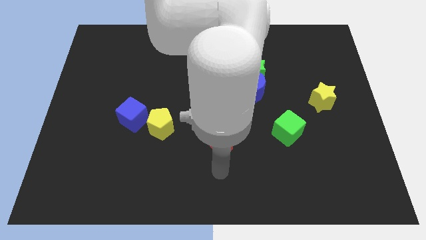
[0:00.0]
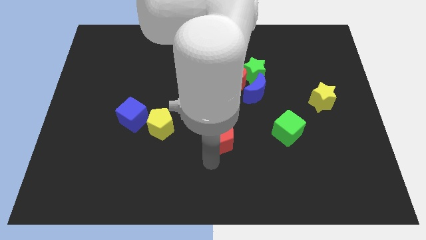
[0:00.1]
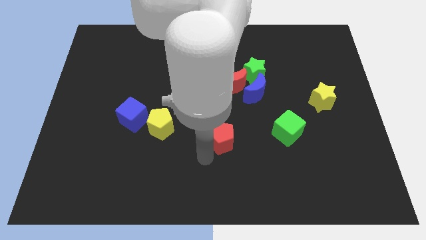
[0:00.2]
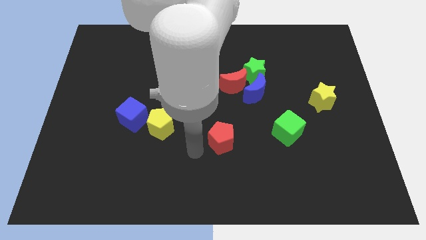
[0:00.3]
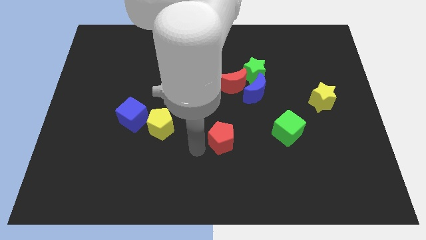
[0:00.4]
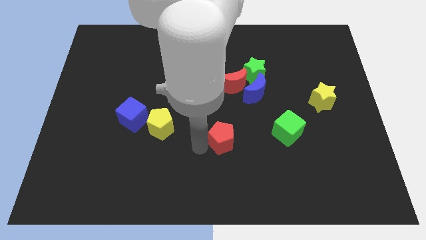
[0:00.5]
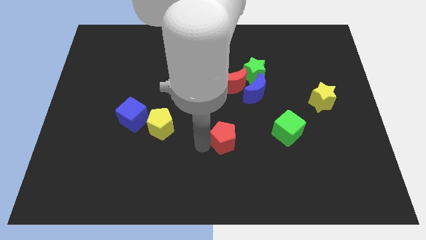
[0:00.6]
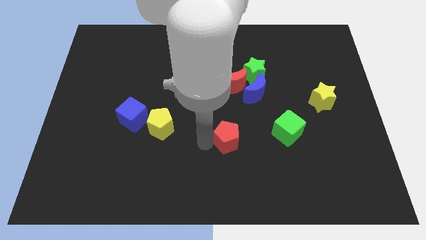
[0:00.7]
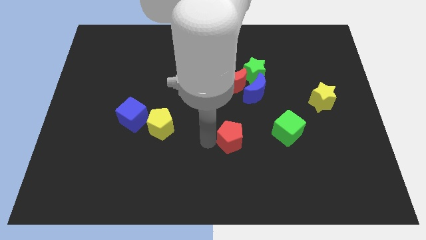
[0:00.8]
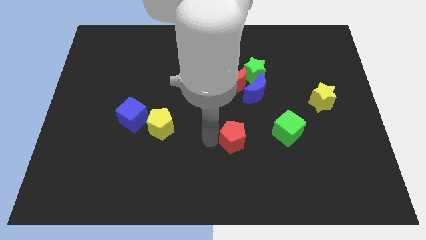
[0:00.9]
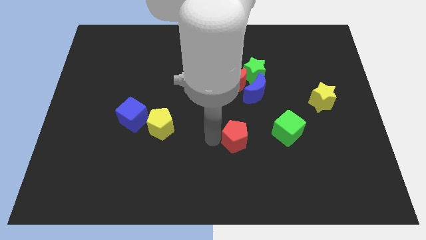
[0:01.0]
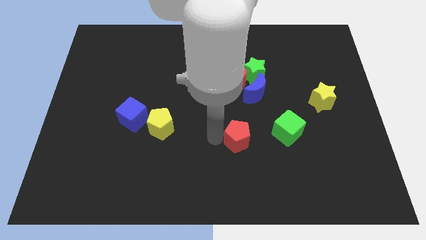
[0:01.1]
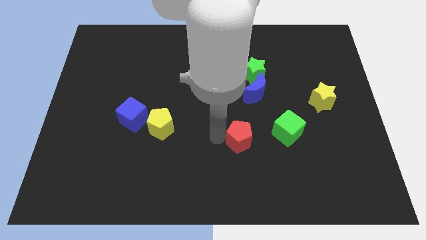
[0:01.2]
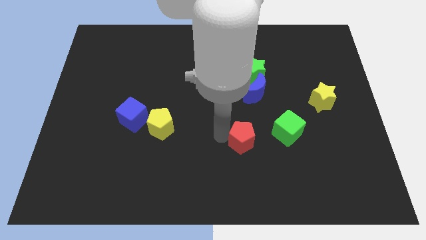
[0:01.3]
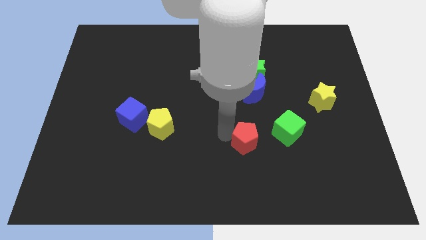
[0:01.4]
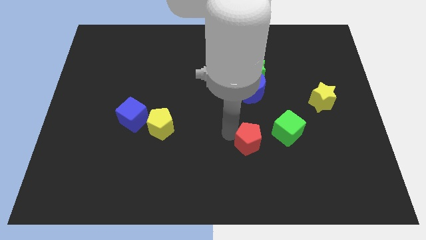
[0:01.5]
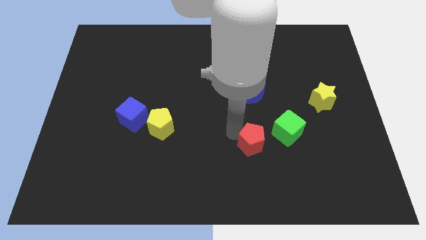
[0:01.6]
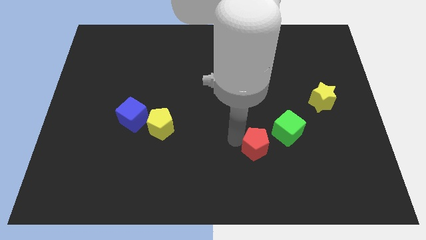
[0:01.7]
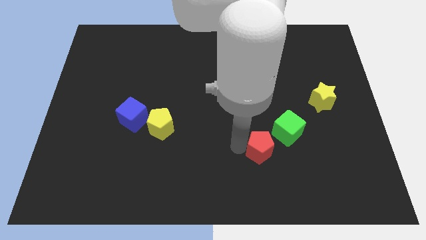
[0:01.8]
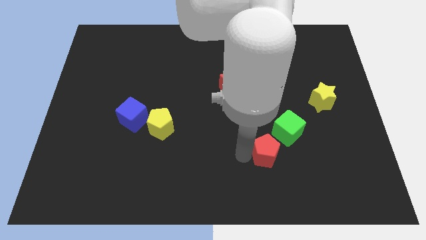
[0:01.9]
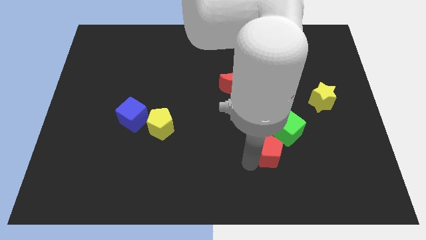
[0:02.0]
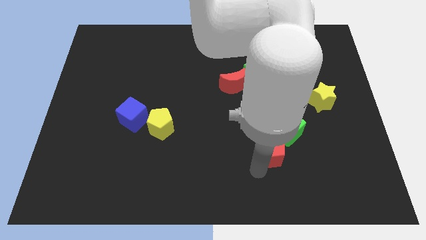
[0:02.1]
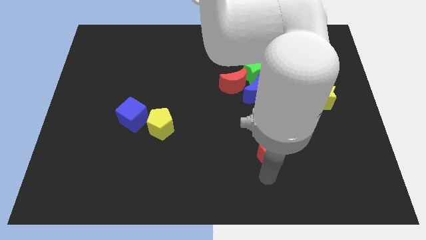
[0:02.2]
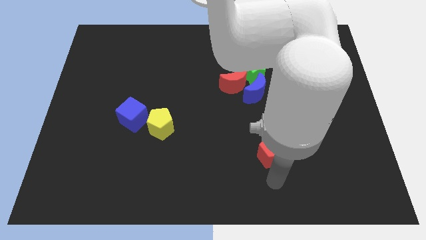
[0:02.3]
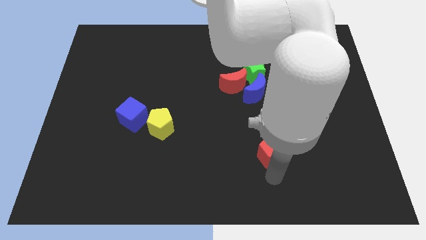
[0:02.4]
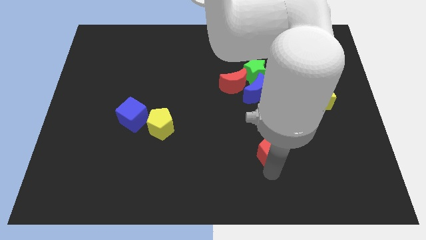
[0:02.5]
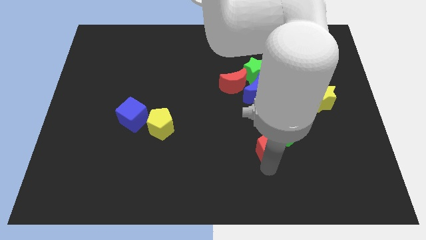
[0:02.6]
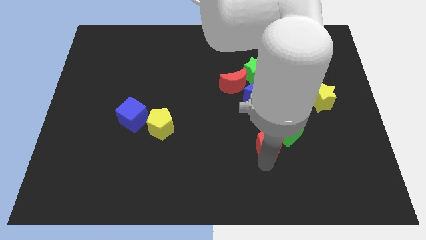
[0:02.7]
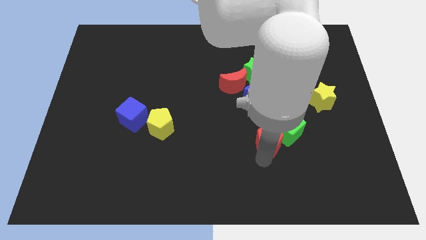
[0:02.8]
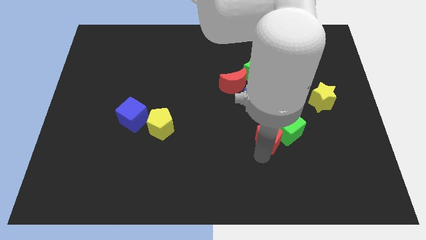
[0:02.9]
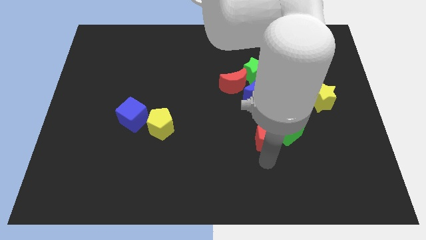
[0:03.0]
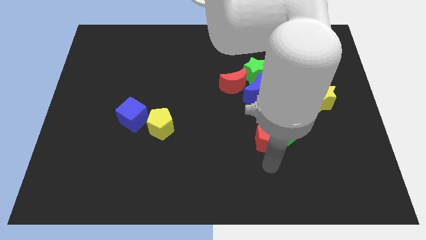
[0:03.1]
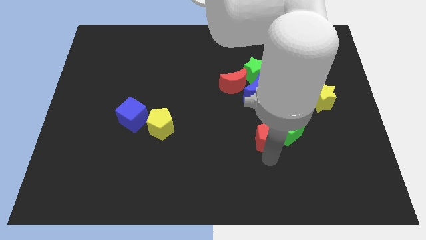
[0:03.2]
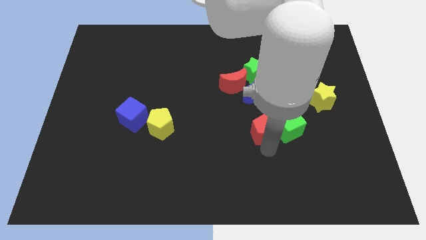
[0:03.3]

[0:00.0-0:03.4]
slide the red pentagon a little up and then right

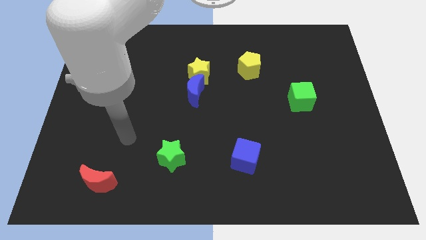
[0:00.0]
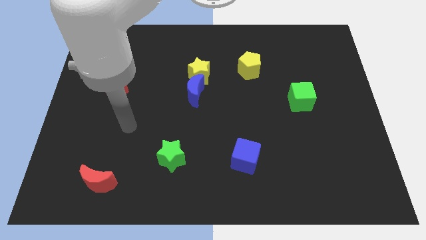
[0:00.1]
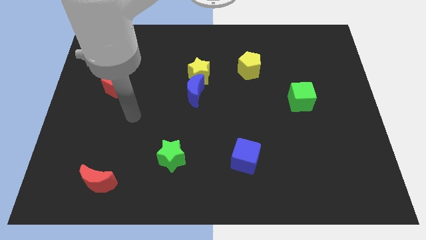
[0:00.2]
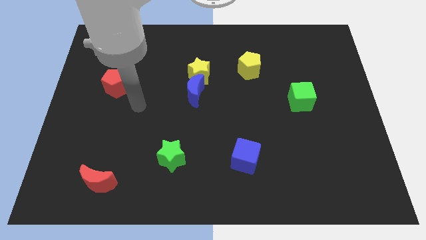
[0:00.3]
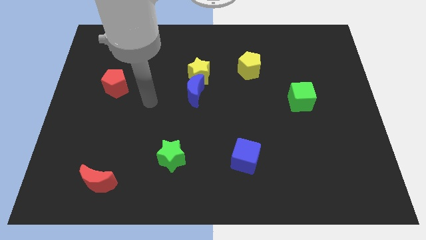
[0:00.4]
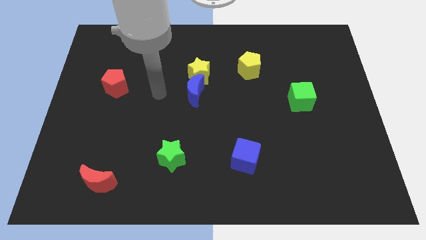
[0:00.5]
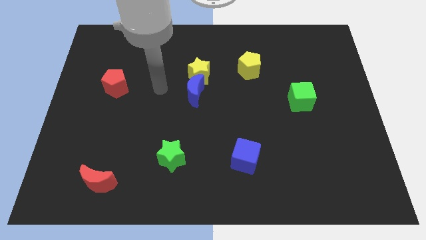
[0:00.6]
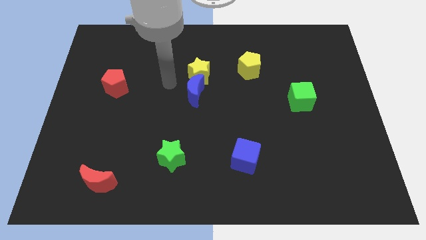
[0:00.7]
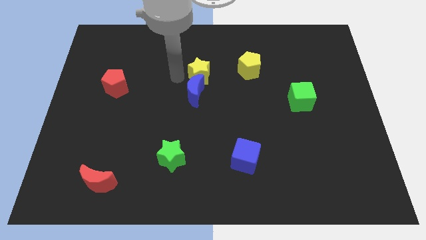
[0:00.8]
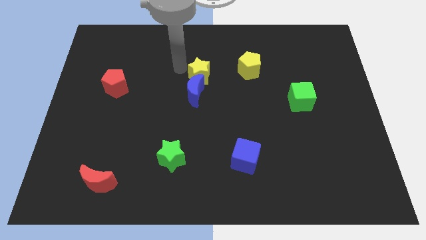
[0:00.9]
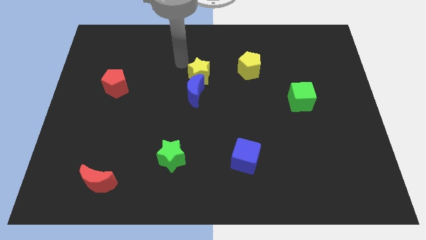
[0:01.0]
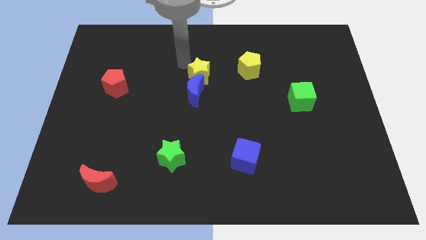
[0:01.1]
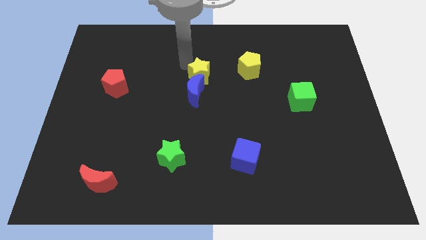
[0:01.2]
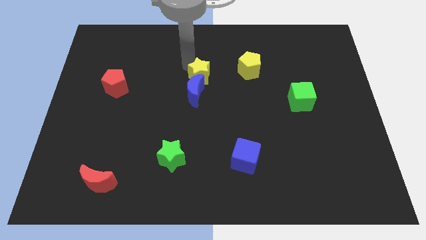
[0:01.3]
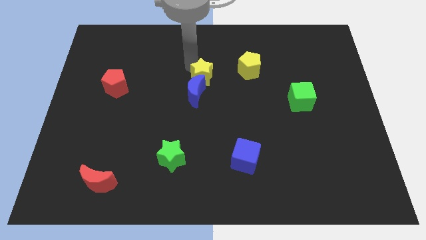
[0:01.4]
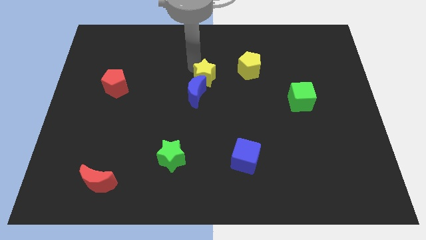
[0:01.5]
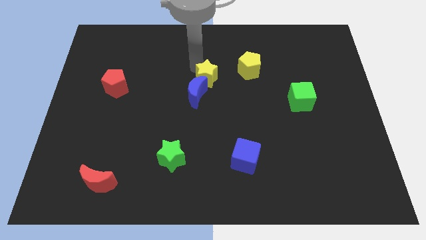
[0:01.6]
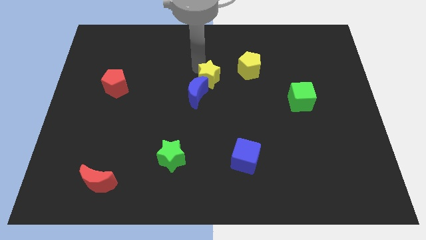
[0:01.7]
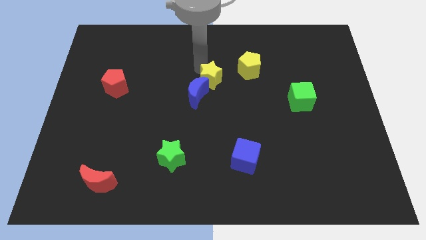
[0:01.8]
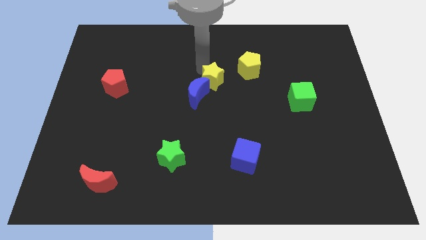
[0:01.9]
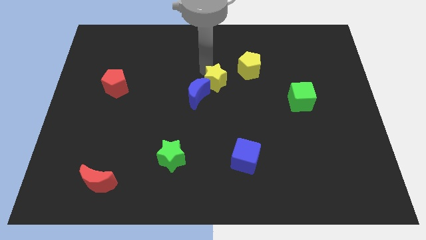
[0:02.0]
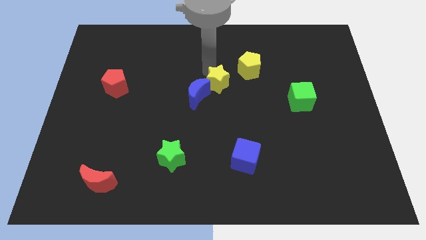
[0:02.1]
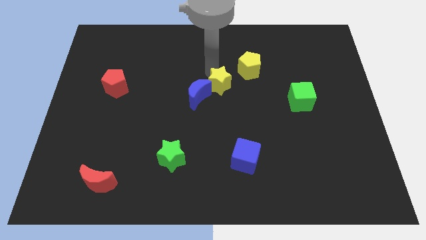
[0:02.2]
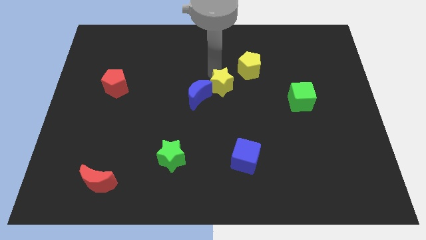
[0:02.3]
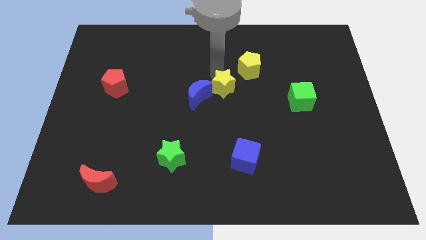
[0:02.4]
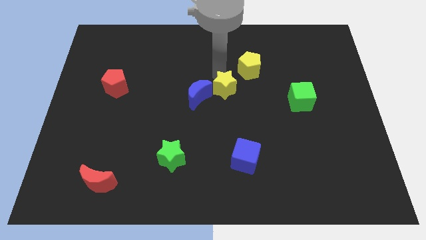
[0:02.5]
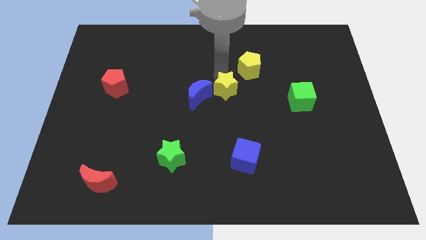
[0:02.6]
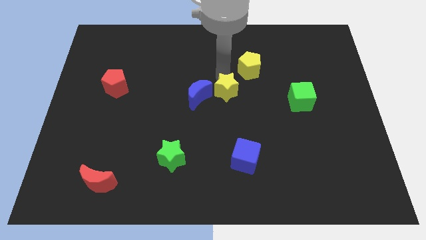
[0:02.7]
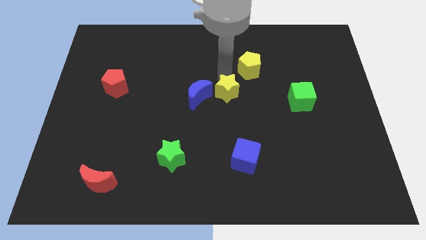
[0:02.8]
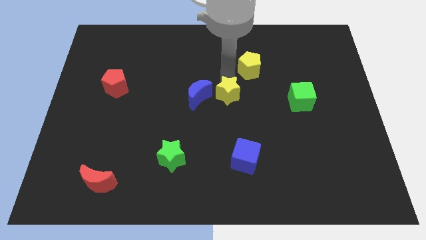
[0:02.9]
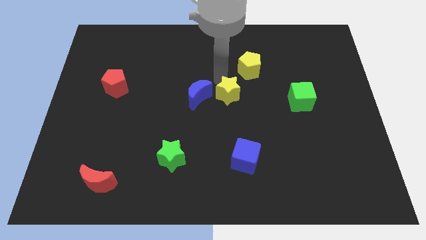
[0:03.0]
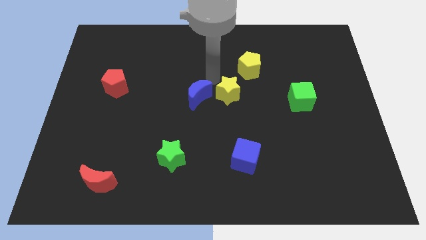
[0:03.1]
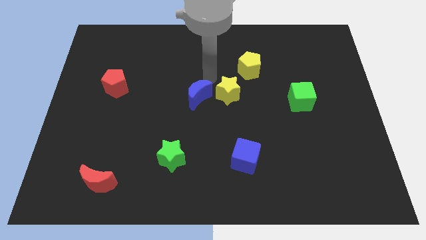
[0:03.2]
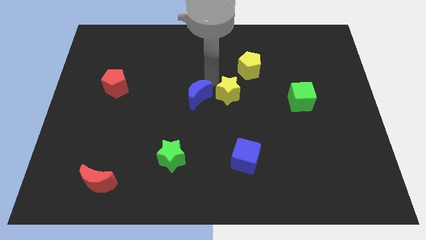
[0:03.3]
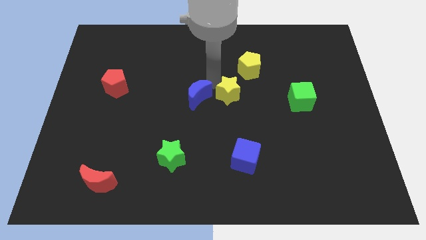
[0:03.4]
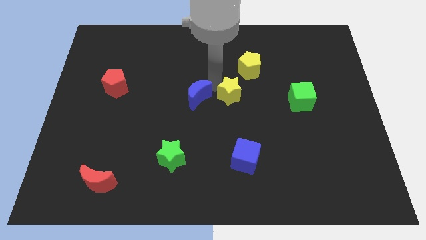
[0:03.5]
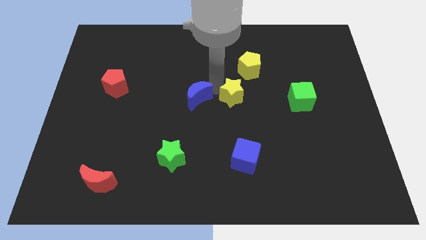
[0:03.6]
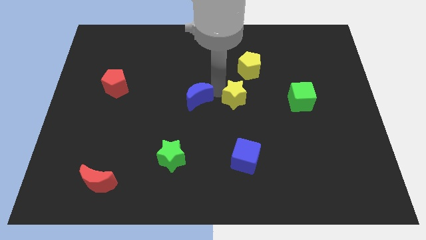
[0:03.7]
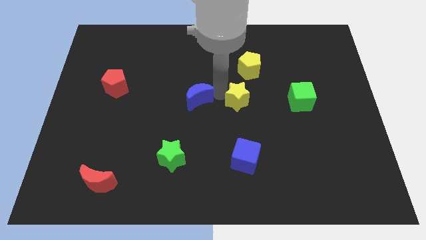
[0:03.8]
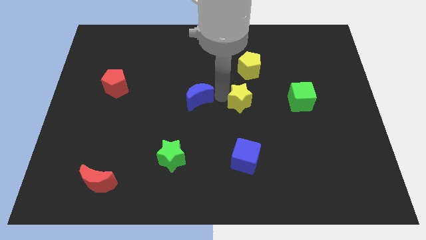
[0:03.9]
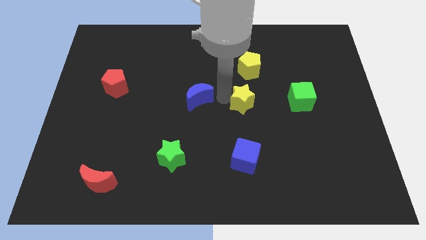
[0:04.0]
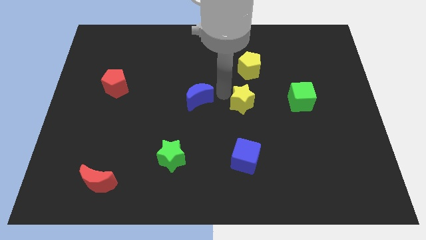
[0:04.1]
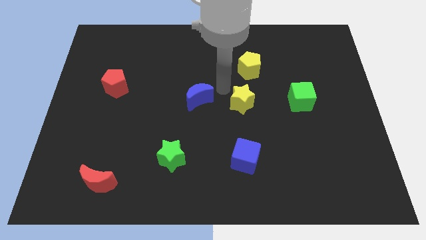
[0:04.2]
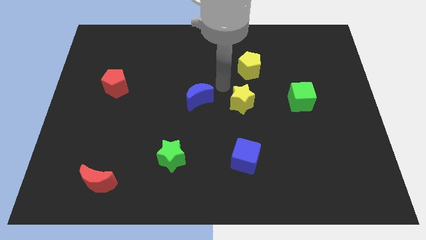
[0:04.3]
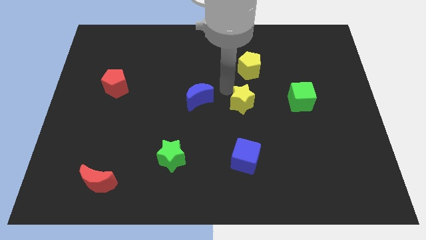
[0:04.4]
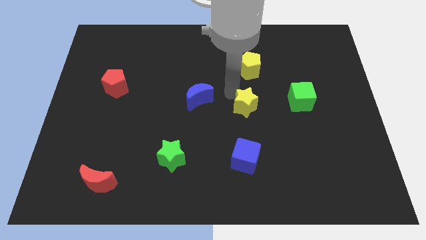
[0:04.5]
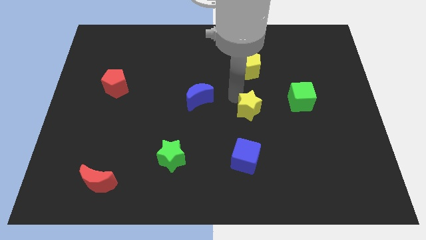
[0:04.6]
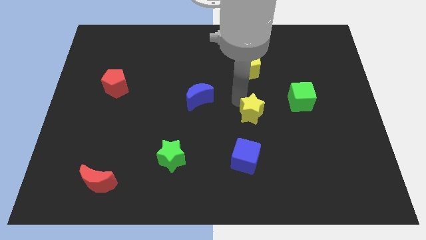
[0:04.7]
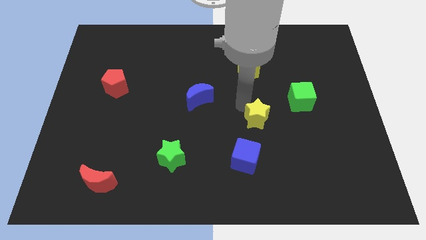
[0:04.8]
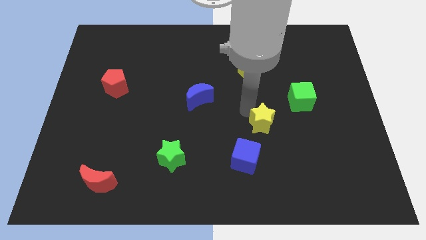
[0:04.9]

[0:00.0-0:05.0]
slide the yellow star down and right diagonally
